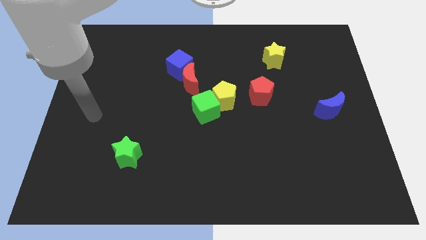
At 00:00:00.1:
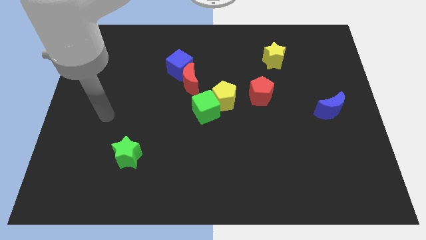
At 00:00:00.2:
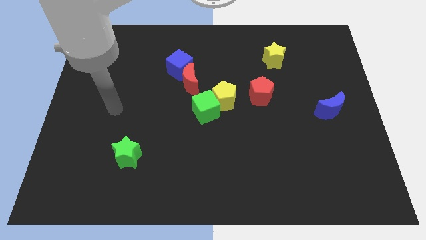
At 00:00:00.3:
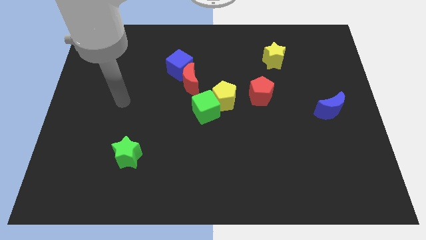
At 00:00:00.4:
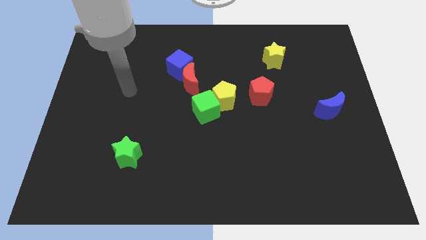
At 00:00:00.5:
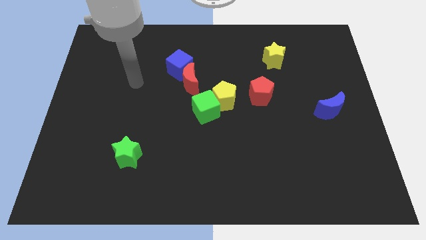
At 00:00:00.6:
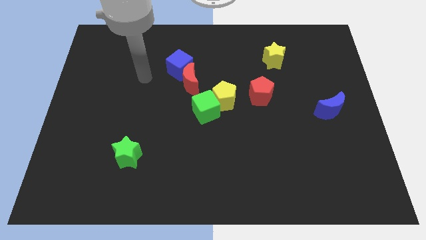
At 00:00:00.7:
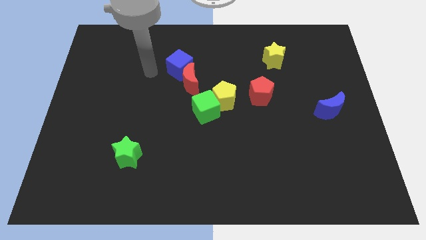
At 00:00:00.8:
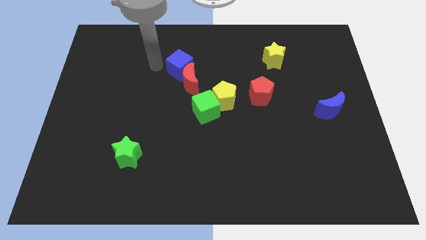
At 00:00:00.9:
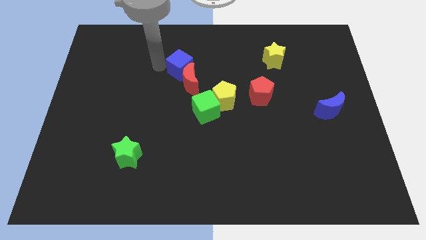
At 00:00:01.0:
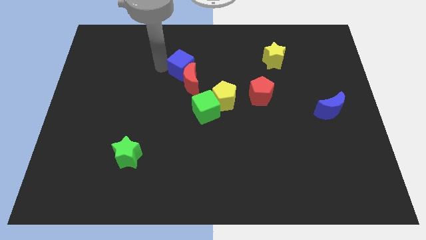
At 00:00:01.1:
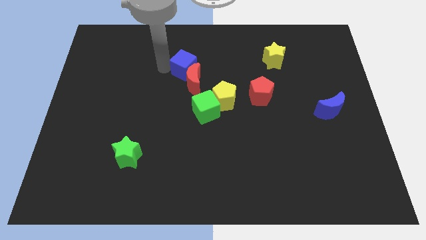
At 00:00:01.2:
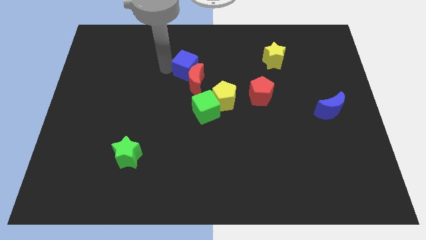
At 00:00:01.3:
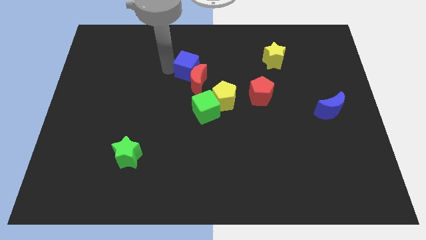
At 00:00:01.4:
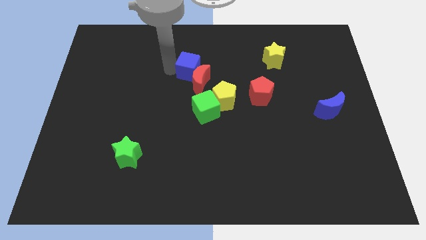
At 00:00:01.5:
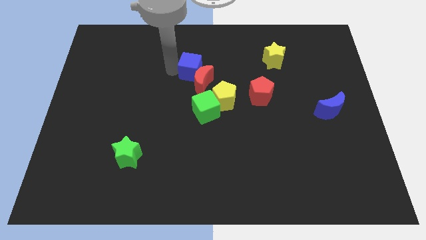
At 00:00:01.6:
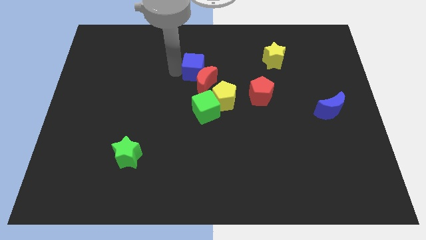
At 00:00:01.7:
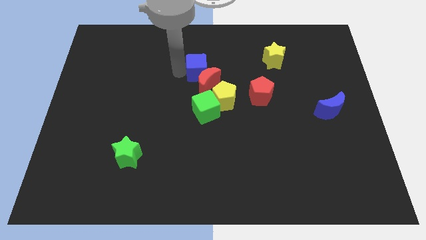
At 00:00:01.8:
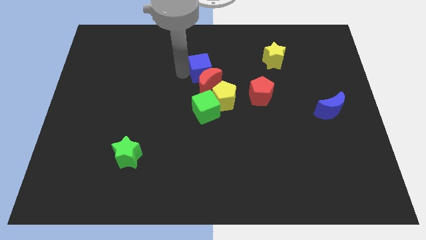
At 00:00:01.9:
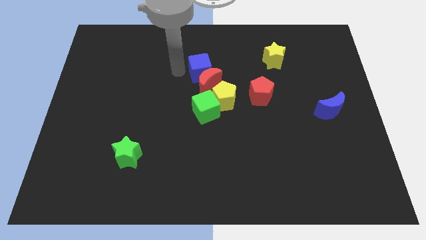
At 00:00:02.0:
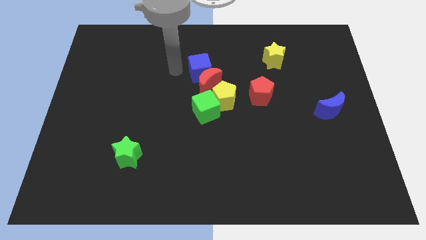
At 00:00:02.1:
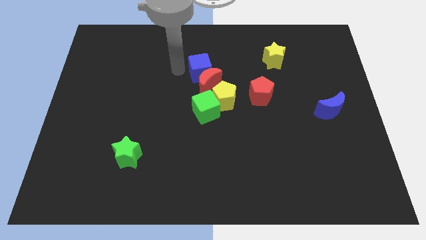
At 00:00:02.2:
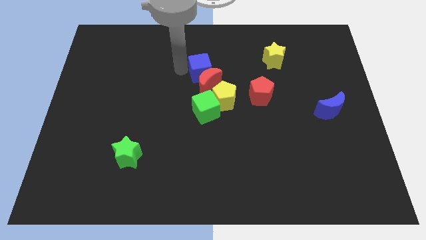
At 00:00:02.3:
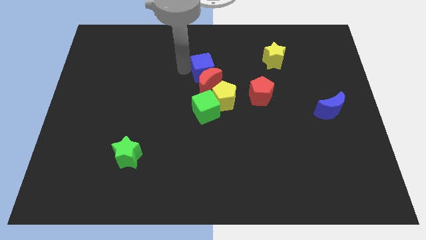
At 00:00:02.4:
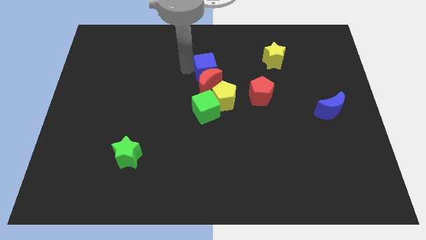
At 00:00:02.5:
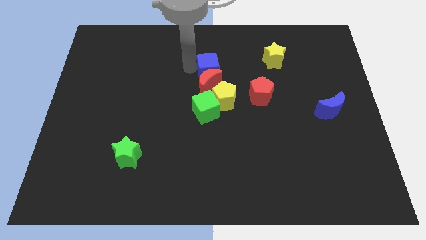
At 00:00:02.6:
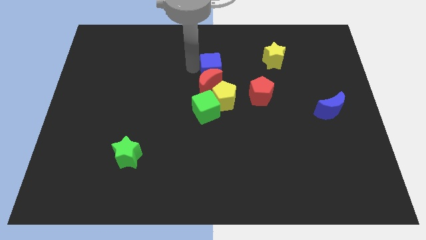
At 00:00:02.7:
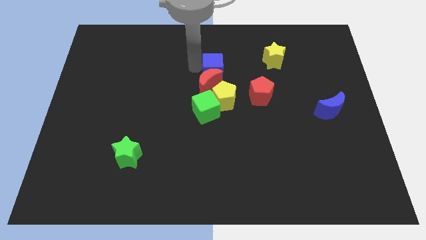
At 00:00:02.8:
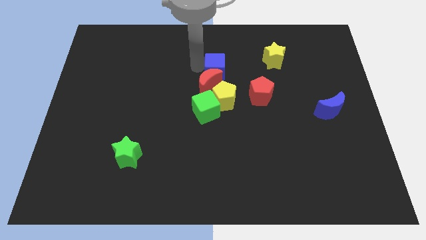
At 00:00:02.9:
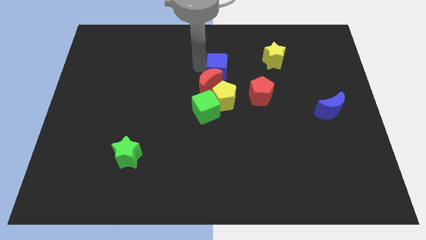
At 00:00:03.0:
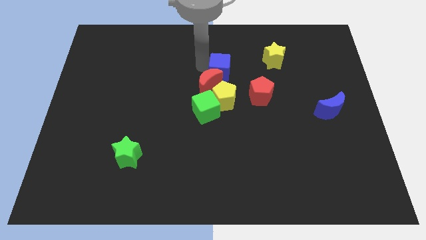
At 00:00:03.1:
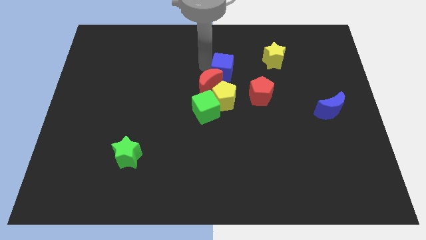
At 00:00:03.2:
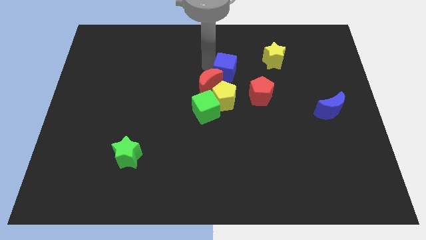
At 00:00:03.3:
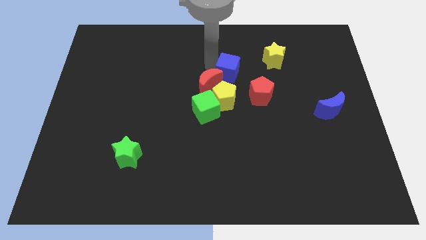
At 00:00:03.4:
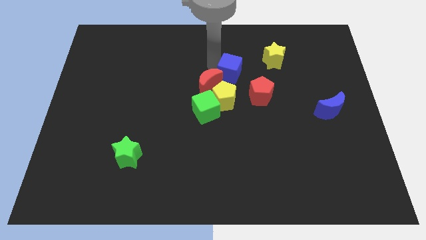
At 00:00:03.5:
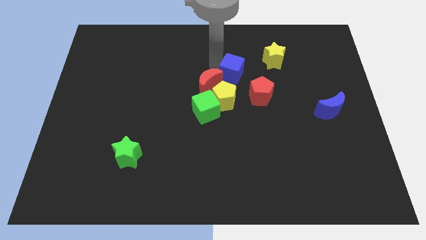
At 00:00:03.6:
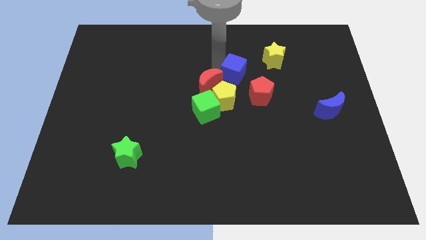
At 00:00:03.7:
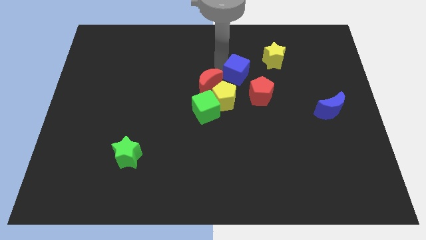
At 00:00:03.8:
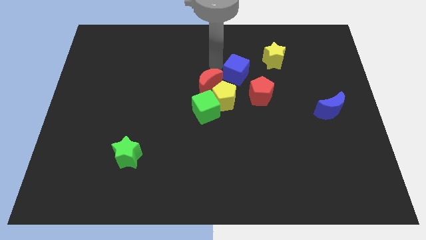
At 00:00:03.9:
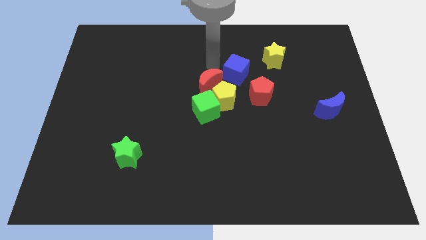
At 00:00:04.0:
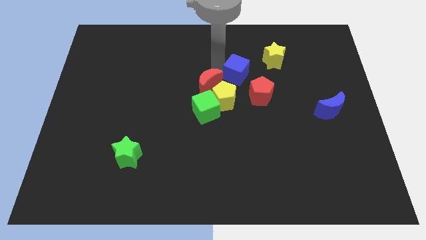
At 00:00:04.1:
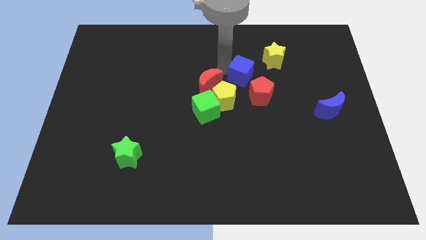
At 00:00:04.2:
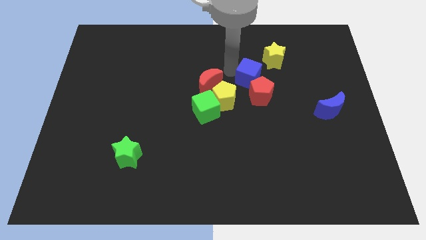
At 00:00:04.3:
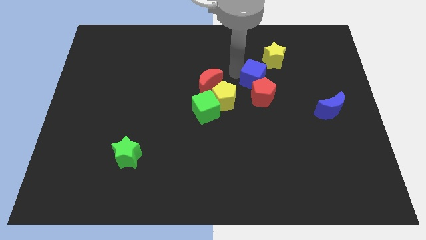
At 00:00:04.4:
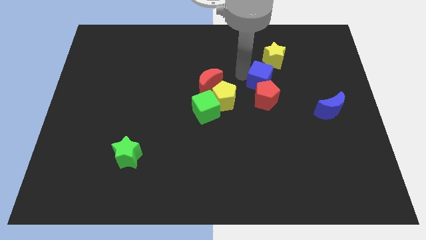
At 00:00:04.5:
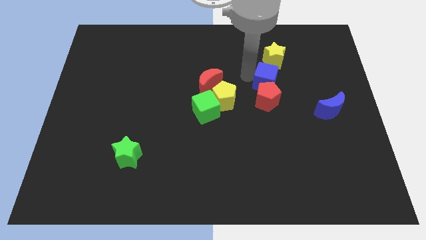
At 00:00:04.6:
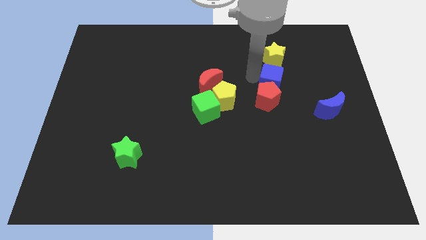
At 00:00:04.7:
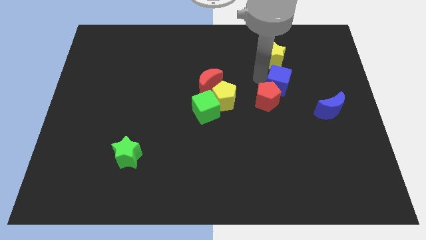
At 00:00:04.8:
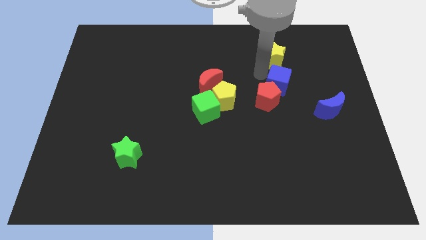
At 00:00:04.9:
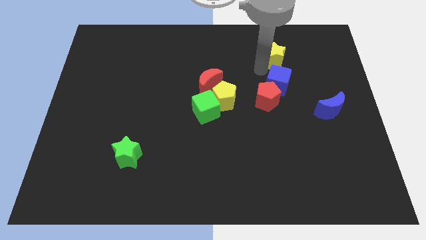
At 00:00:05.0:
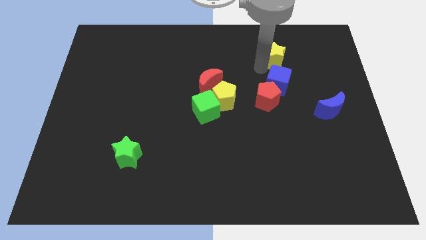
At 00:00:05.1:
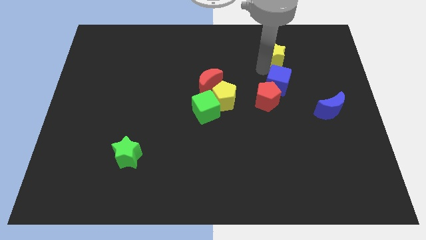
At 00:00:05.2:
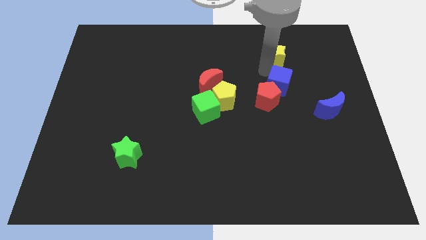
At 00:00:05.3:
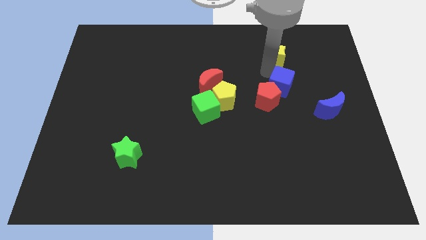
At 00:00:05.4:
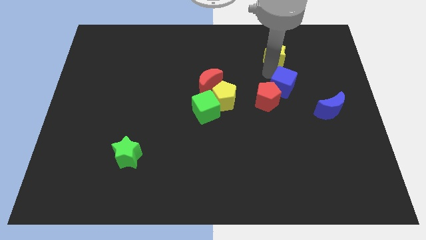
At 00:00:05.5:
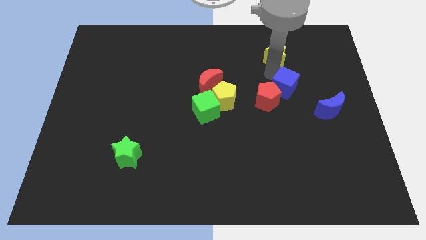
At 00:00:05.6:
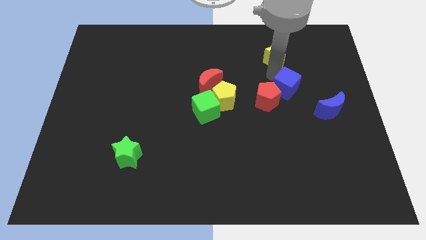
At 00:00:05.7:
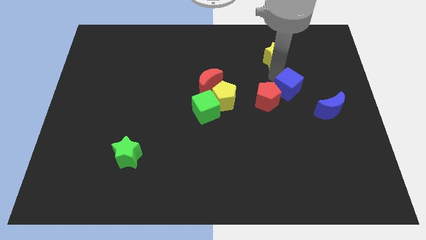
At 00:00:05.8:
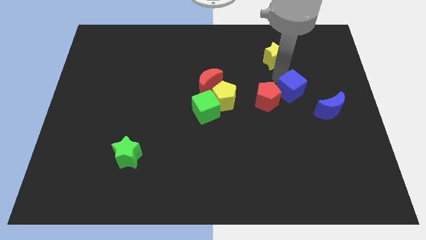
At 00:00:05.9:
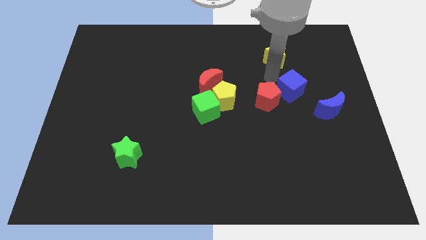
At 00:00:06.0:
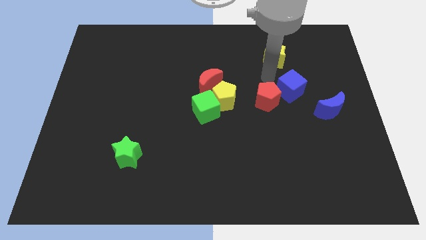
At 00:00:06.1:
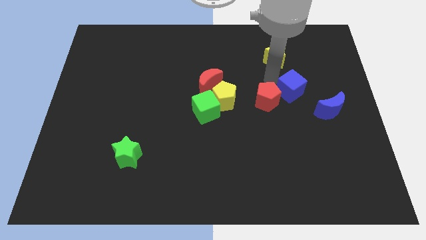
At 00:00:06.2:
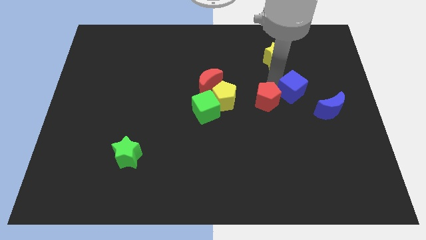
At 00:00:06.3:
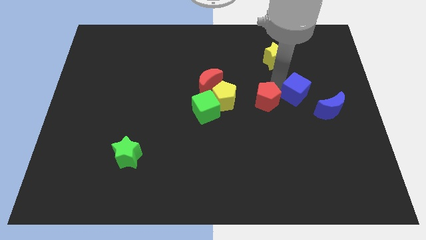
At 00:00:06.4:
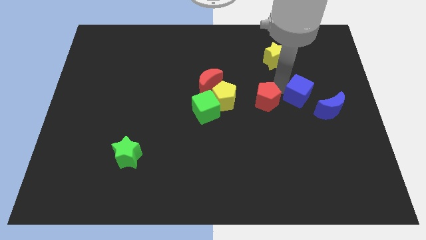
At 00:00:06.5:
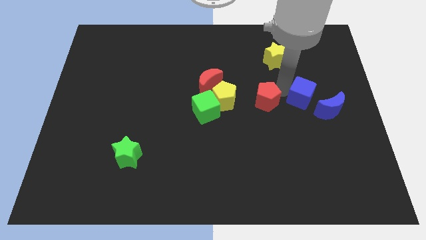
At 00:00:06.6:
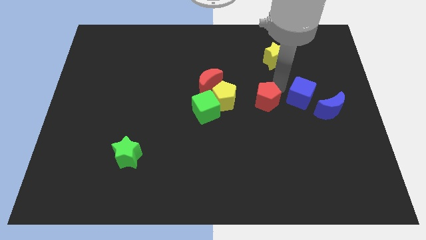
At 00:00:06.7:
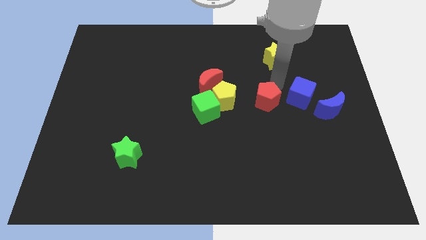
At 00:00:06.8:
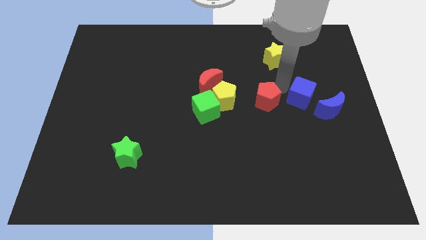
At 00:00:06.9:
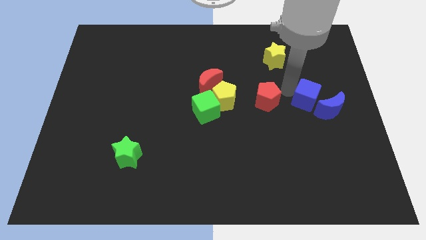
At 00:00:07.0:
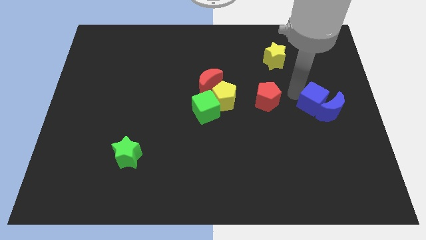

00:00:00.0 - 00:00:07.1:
push the blue cube close to the blue moon

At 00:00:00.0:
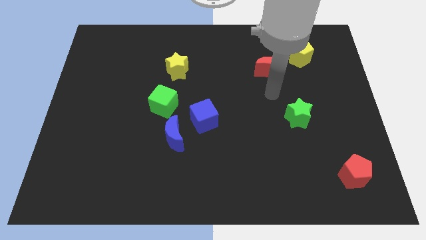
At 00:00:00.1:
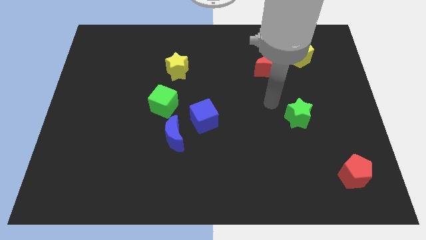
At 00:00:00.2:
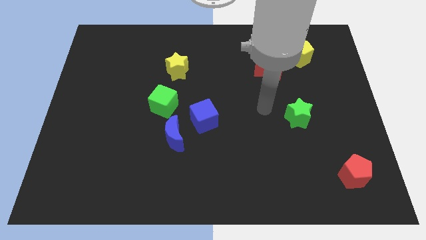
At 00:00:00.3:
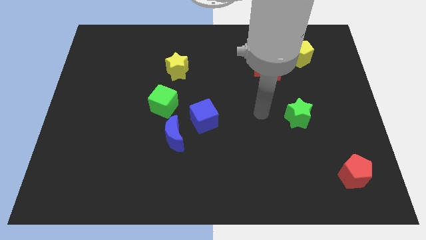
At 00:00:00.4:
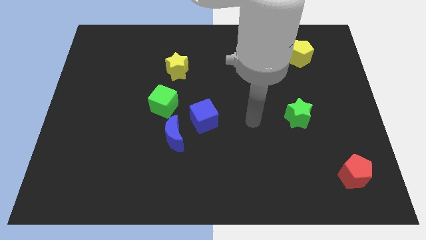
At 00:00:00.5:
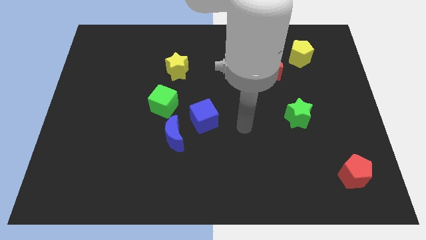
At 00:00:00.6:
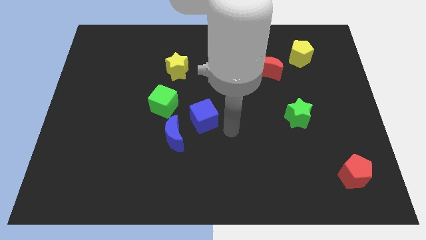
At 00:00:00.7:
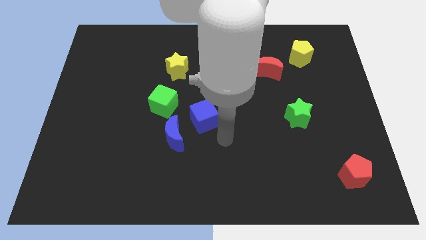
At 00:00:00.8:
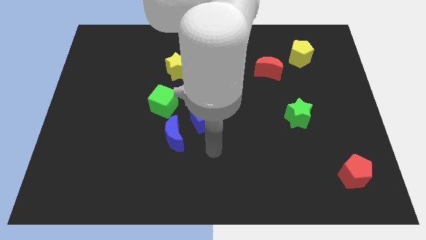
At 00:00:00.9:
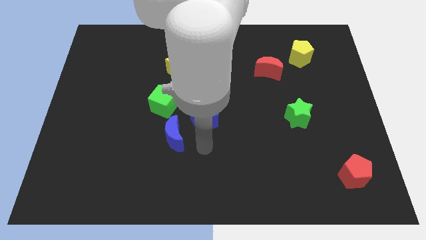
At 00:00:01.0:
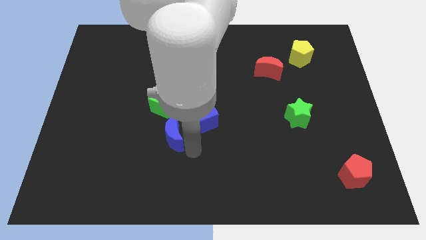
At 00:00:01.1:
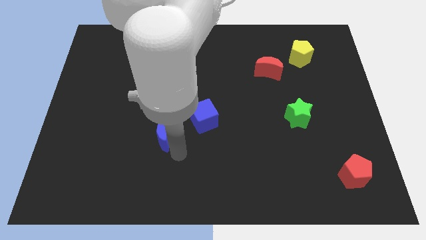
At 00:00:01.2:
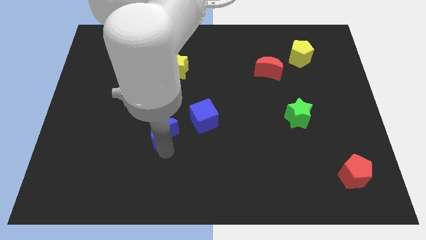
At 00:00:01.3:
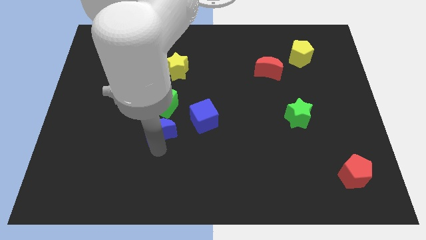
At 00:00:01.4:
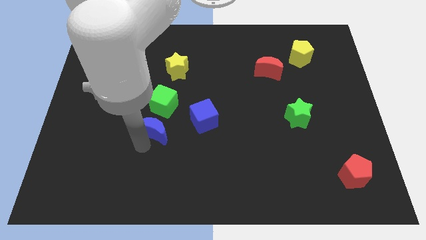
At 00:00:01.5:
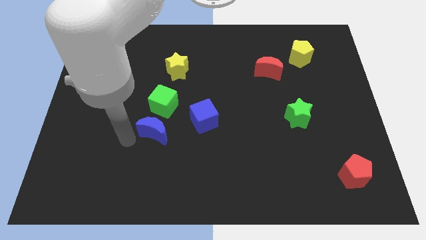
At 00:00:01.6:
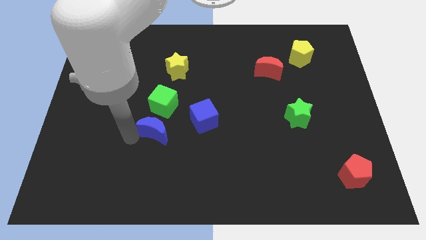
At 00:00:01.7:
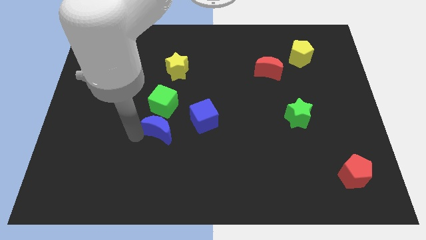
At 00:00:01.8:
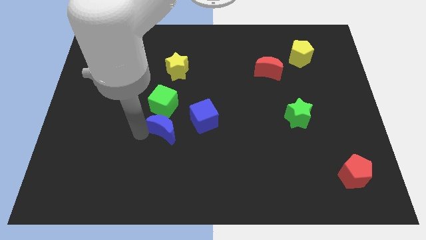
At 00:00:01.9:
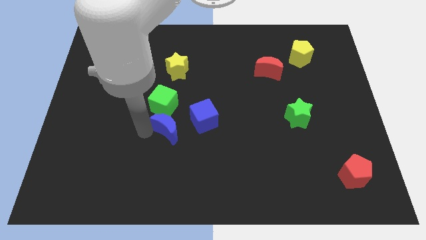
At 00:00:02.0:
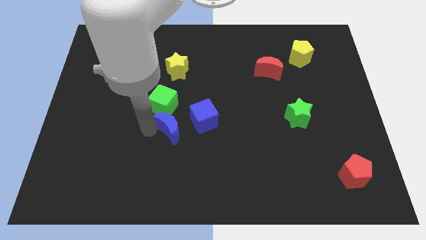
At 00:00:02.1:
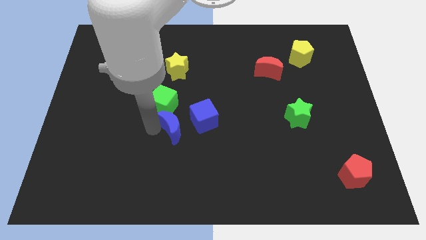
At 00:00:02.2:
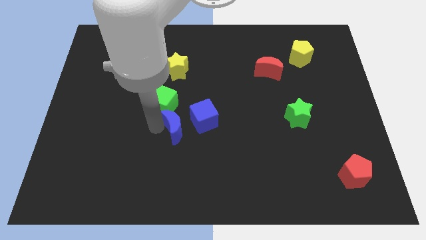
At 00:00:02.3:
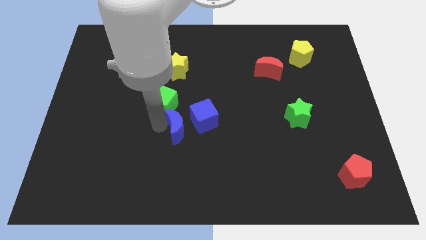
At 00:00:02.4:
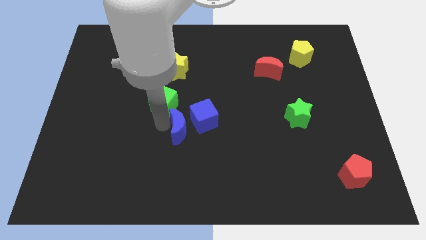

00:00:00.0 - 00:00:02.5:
slide the blue moon to the blue cube
